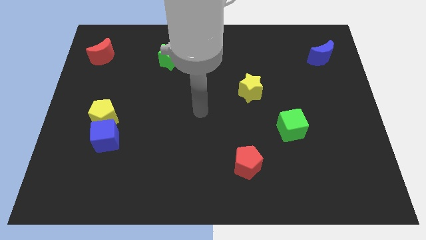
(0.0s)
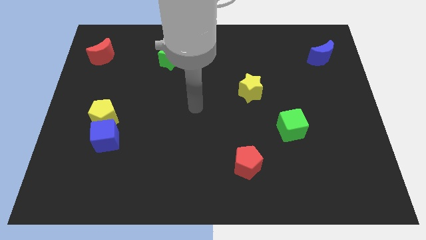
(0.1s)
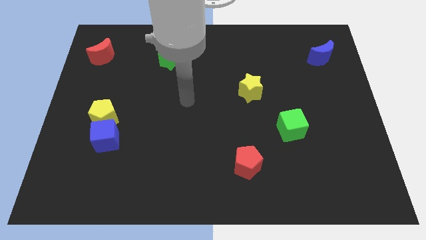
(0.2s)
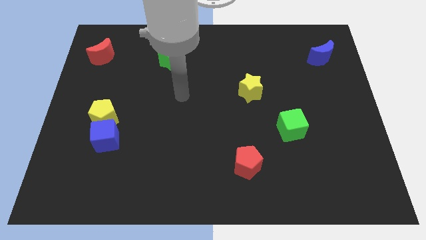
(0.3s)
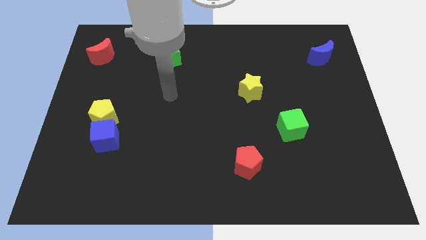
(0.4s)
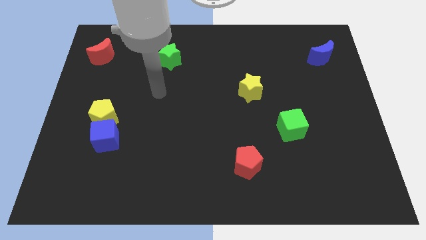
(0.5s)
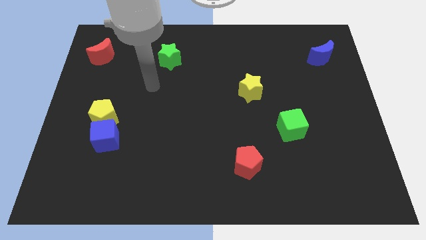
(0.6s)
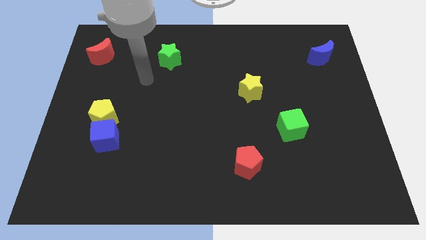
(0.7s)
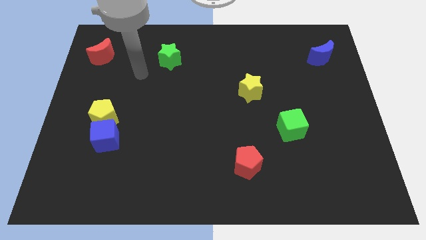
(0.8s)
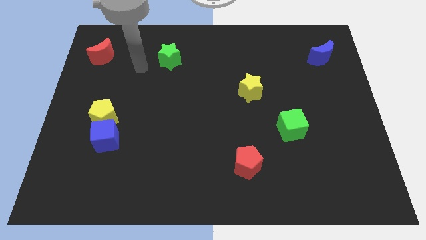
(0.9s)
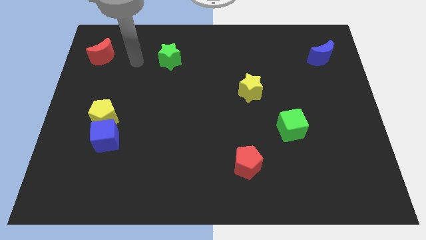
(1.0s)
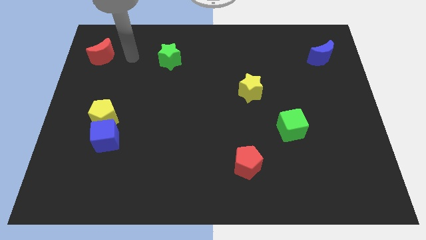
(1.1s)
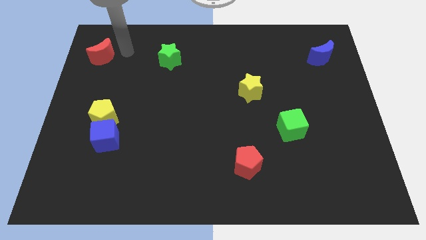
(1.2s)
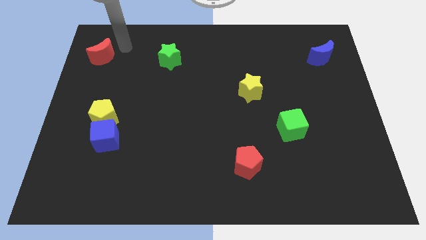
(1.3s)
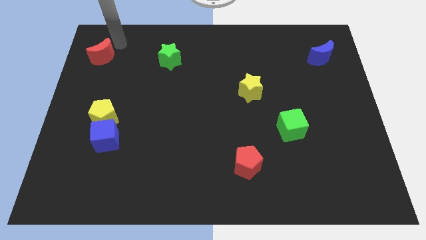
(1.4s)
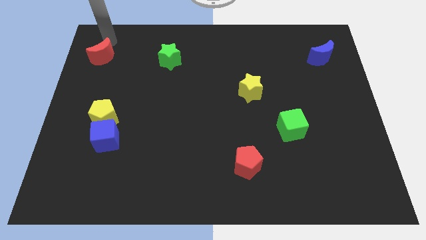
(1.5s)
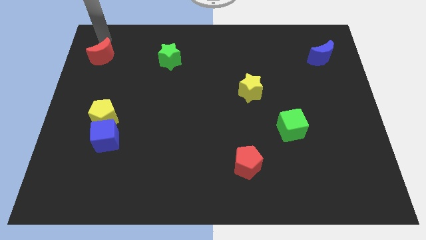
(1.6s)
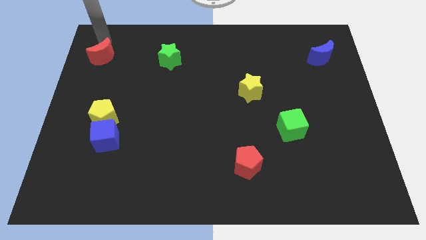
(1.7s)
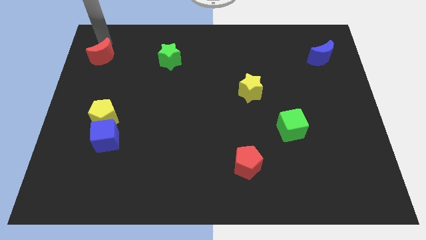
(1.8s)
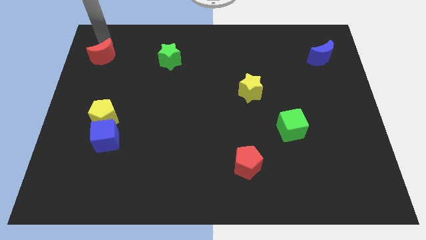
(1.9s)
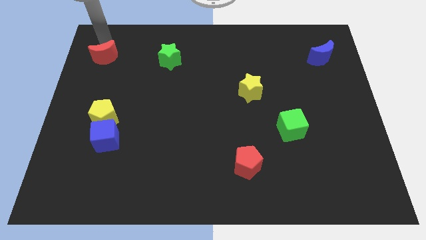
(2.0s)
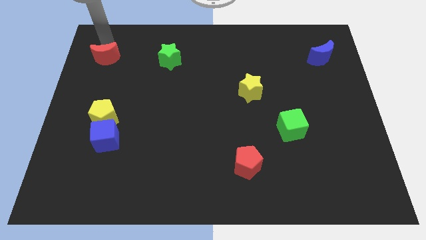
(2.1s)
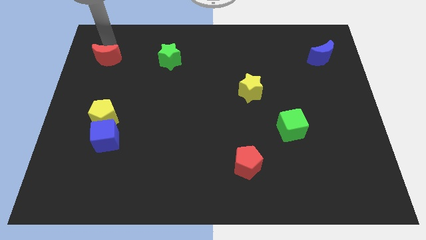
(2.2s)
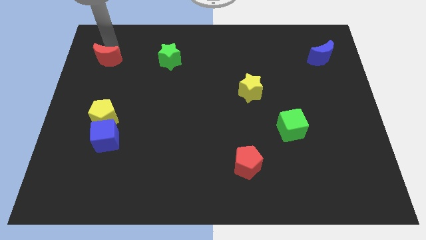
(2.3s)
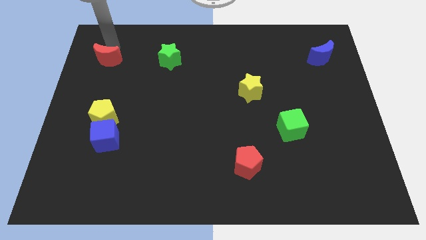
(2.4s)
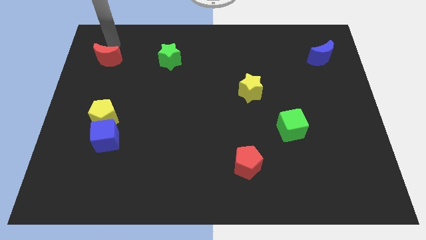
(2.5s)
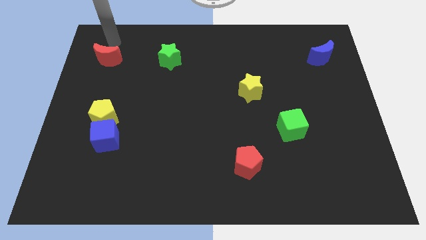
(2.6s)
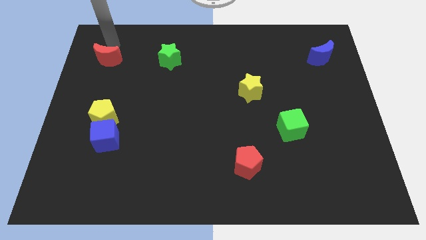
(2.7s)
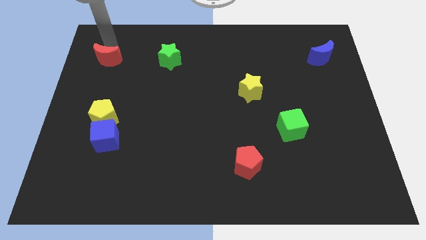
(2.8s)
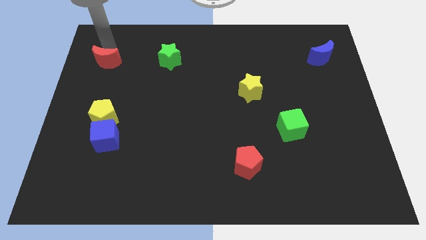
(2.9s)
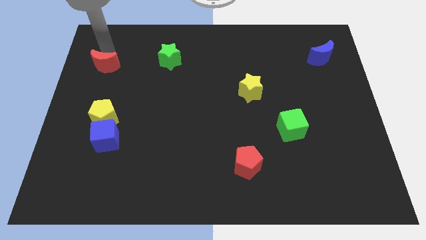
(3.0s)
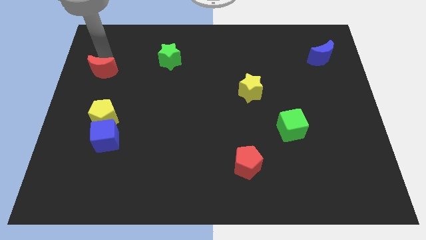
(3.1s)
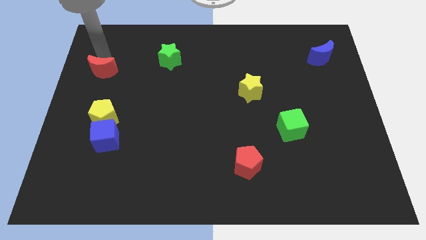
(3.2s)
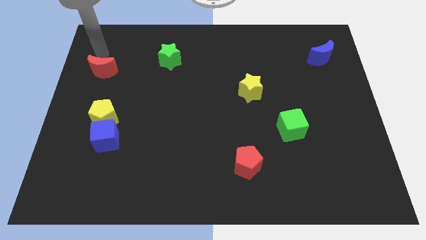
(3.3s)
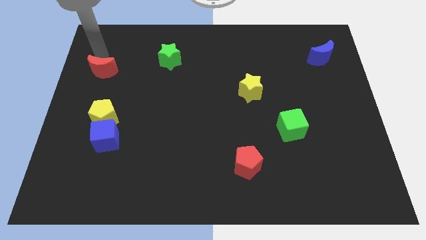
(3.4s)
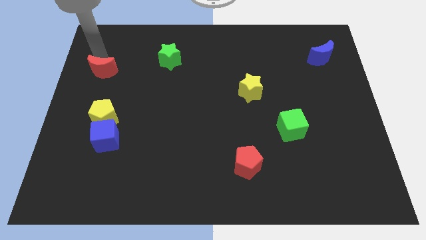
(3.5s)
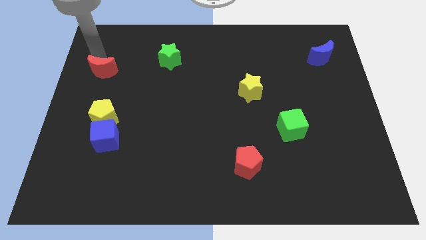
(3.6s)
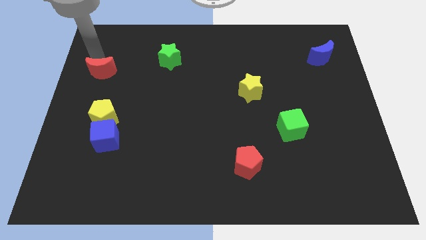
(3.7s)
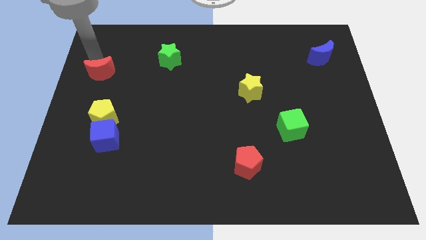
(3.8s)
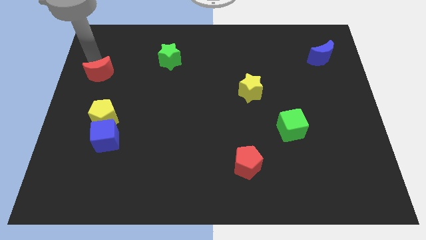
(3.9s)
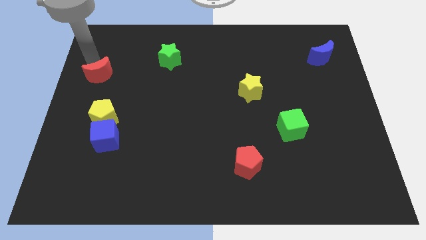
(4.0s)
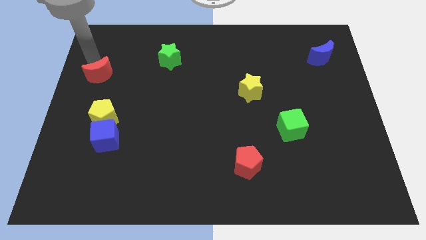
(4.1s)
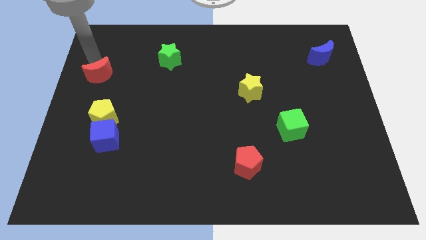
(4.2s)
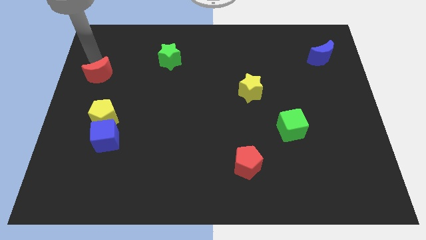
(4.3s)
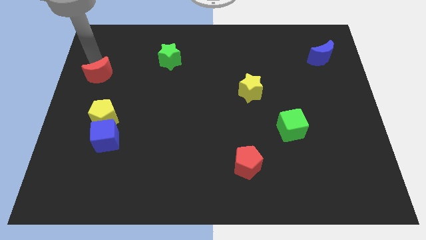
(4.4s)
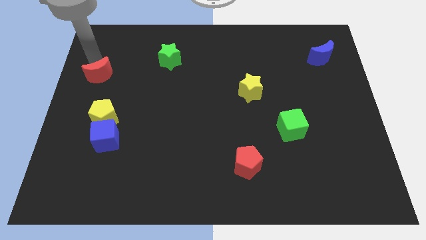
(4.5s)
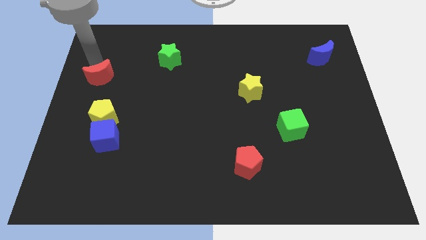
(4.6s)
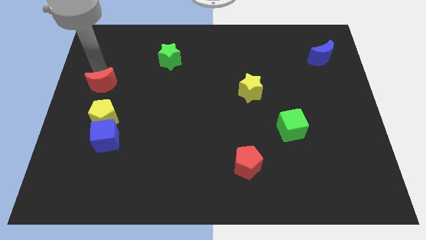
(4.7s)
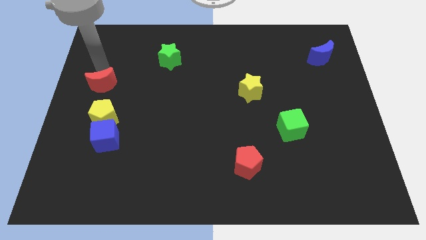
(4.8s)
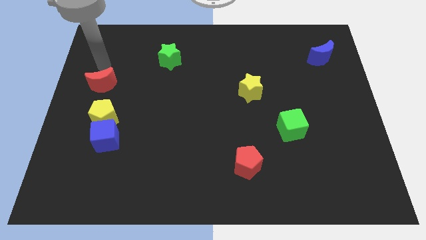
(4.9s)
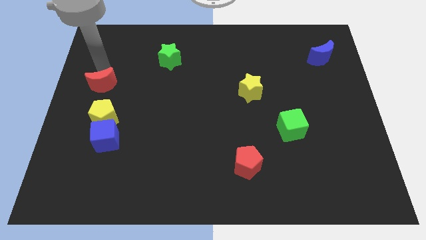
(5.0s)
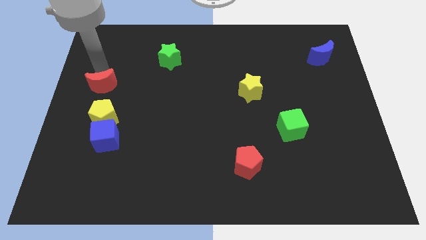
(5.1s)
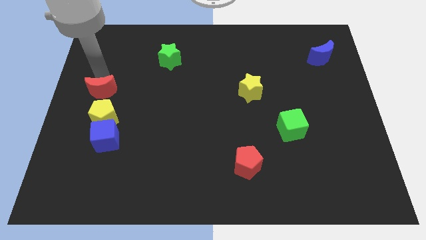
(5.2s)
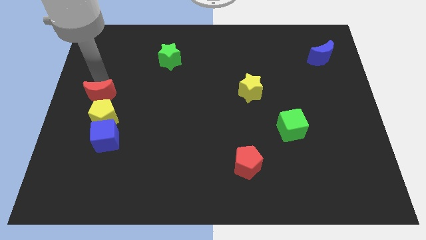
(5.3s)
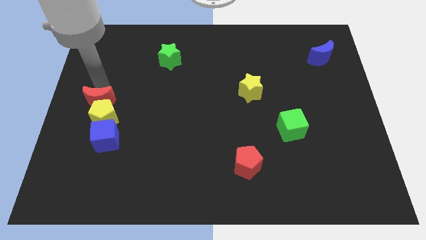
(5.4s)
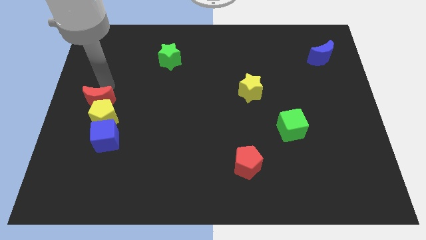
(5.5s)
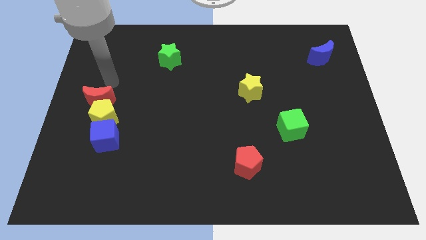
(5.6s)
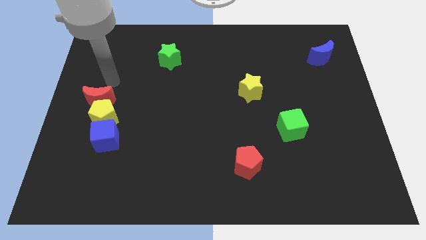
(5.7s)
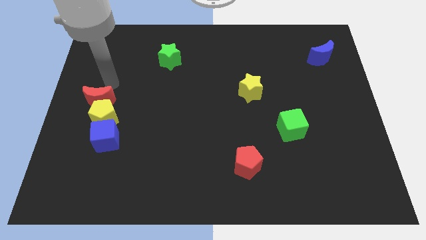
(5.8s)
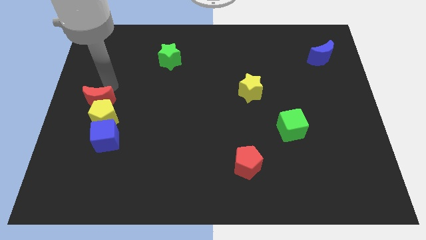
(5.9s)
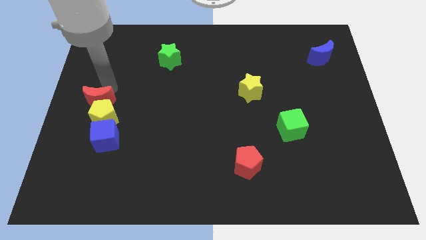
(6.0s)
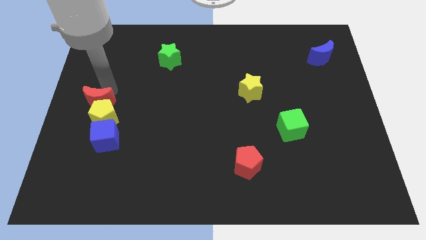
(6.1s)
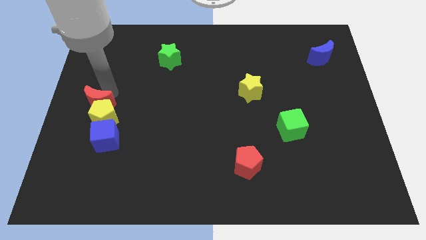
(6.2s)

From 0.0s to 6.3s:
put the red moon to the top left of the blue cube

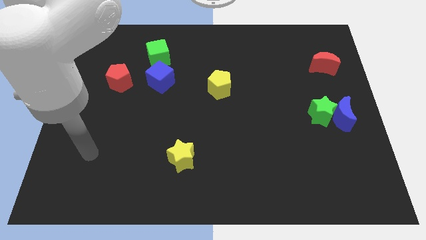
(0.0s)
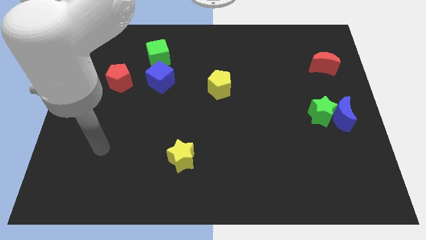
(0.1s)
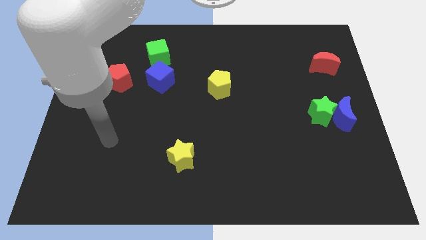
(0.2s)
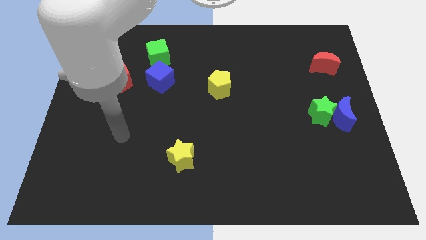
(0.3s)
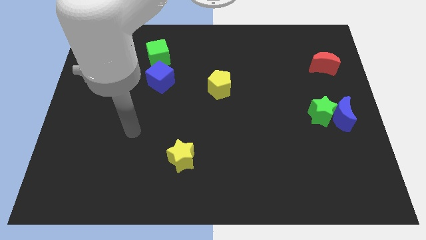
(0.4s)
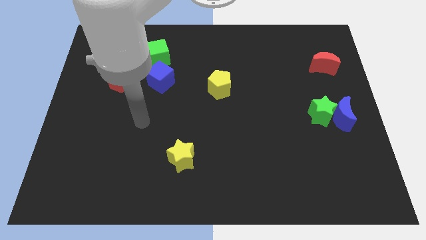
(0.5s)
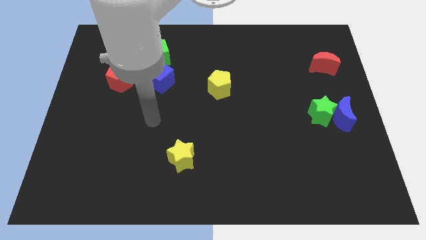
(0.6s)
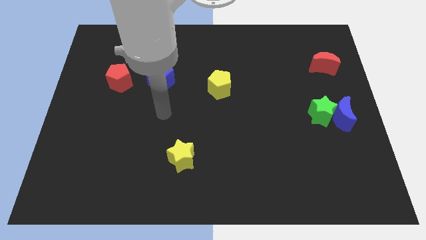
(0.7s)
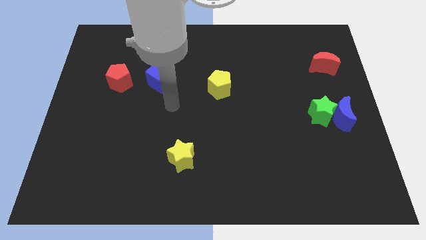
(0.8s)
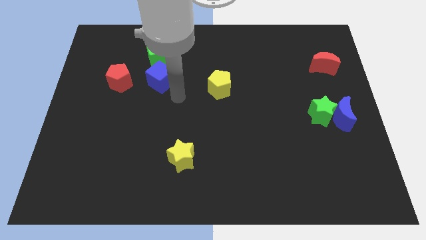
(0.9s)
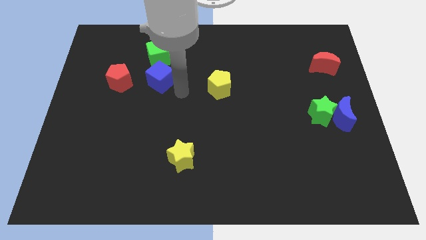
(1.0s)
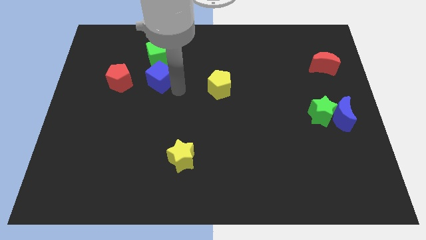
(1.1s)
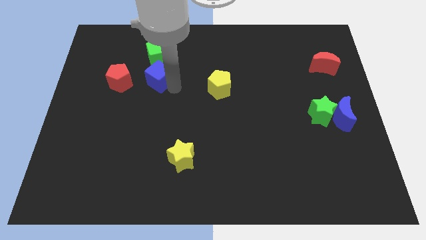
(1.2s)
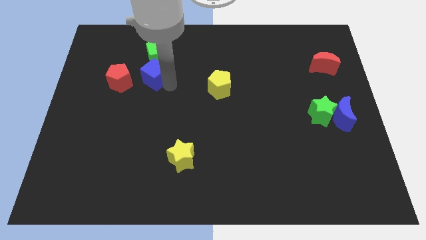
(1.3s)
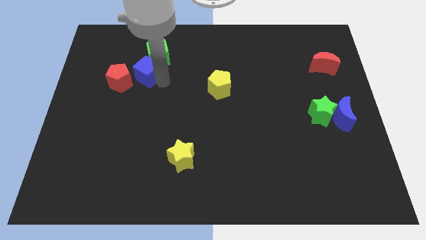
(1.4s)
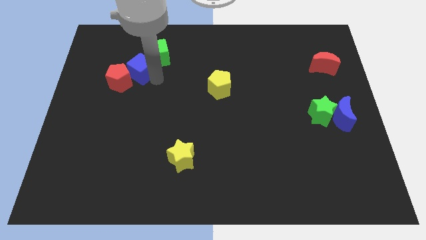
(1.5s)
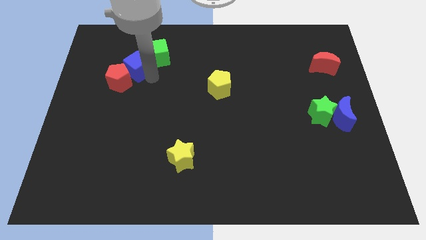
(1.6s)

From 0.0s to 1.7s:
put the blue cube to the left of the green cube
